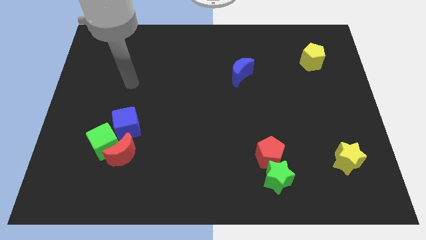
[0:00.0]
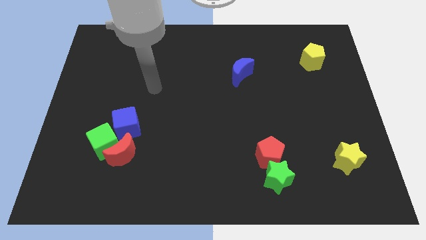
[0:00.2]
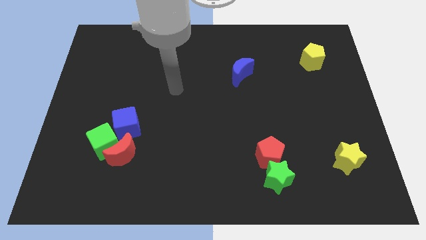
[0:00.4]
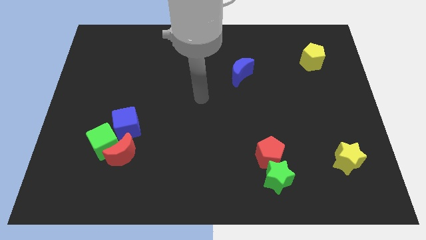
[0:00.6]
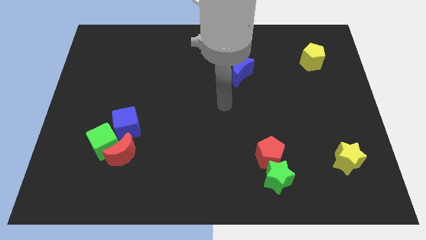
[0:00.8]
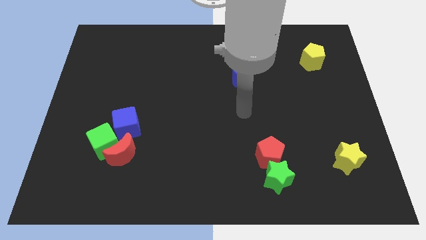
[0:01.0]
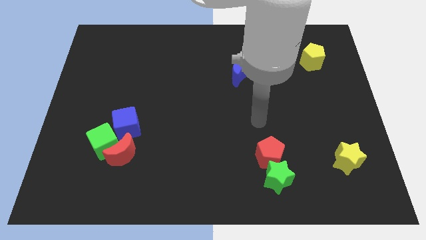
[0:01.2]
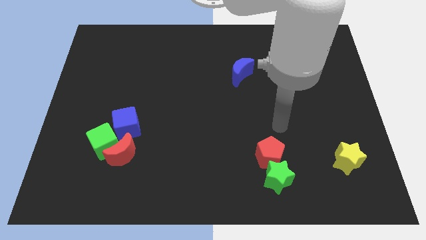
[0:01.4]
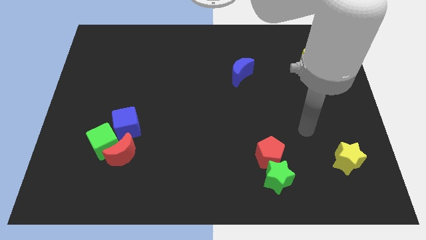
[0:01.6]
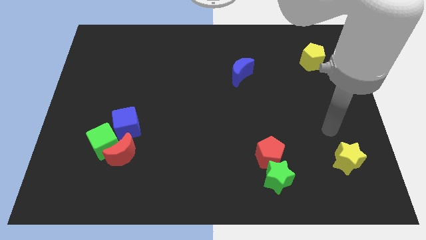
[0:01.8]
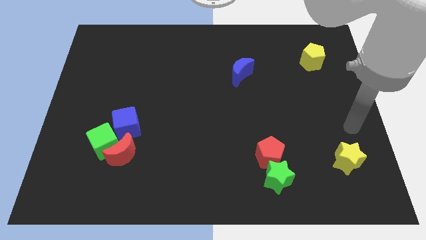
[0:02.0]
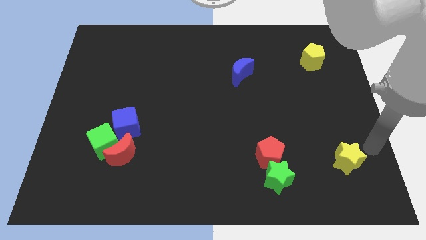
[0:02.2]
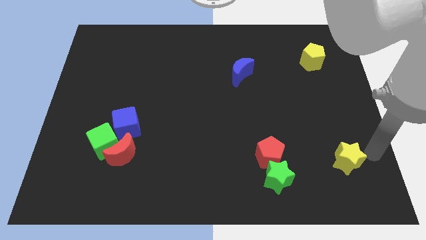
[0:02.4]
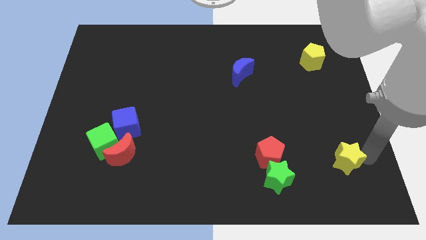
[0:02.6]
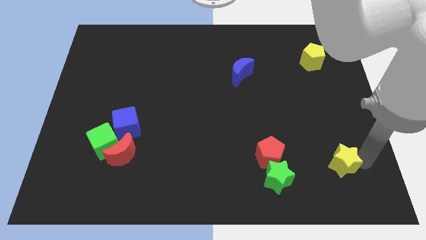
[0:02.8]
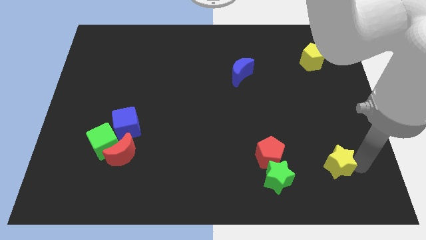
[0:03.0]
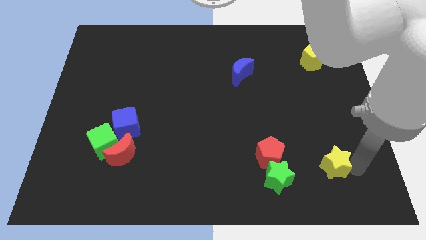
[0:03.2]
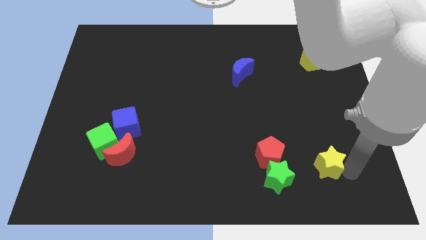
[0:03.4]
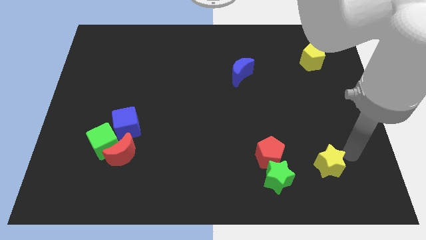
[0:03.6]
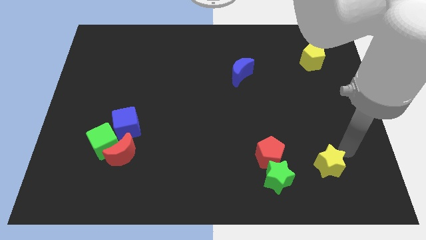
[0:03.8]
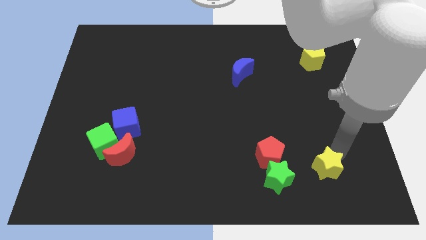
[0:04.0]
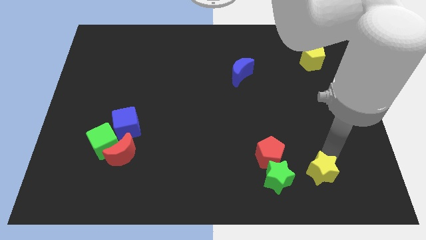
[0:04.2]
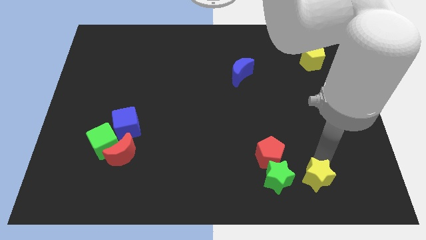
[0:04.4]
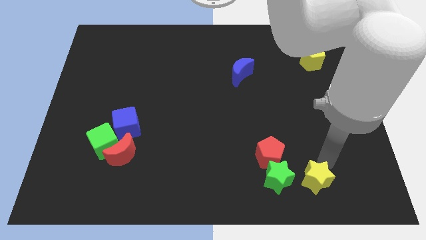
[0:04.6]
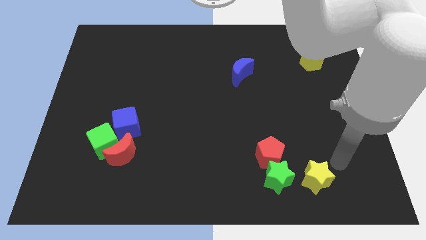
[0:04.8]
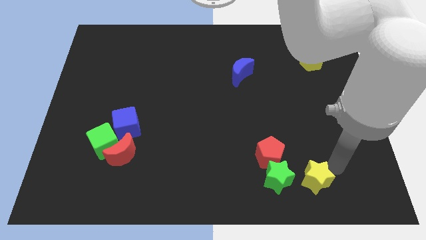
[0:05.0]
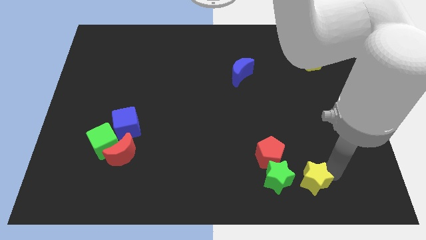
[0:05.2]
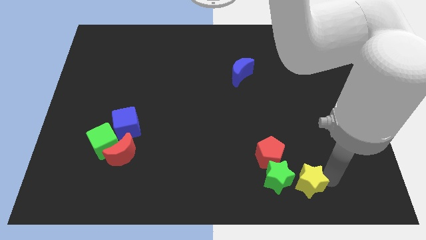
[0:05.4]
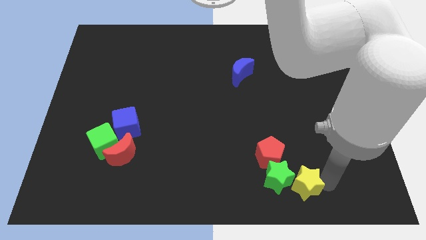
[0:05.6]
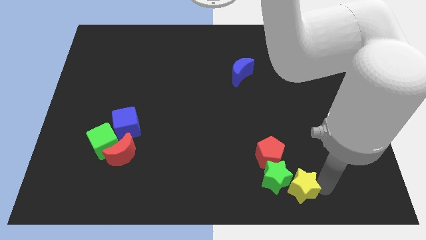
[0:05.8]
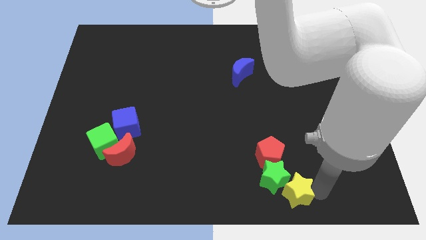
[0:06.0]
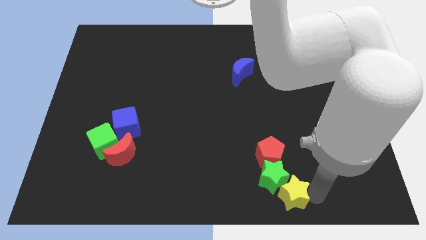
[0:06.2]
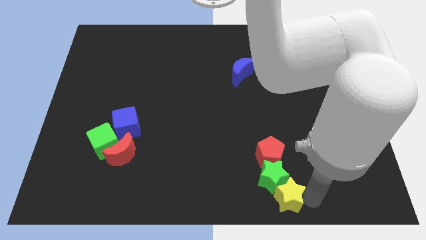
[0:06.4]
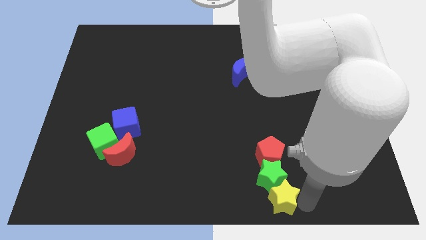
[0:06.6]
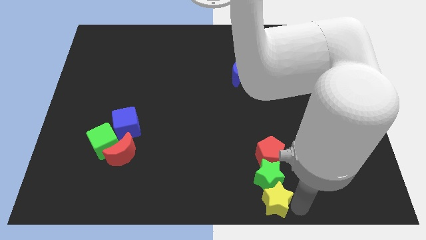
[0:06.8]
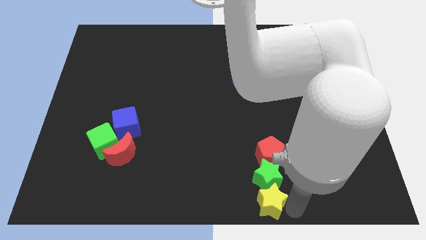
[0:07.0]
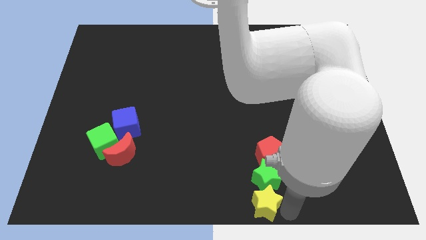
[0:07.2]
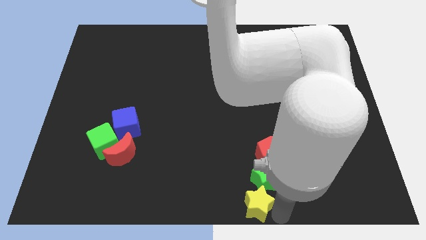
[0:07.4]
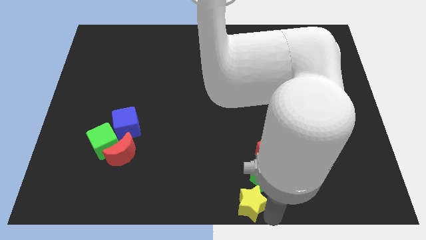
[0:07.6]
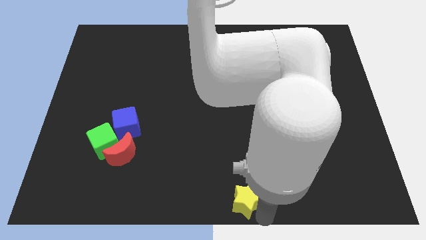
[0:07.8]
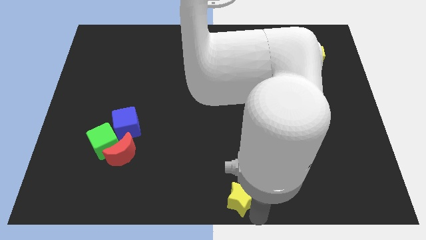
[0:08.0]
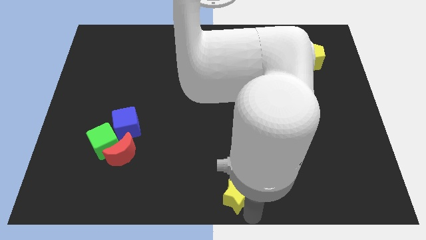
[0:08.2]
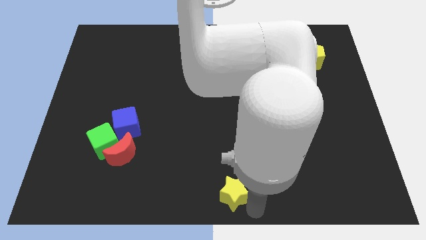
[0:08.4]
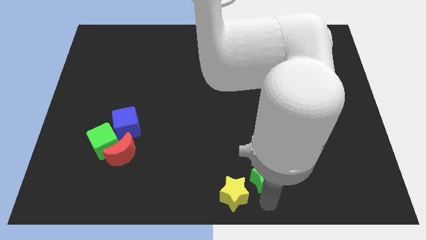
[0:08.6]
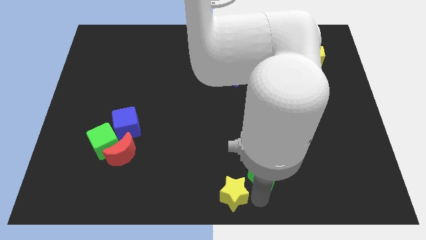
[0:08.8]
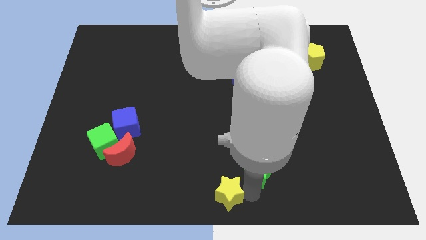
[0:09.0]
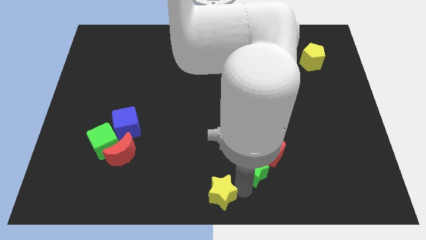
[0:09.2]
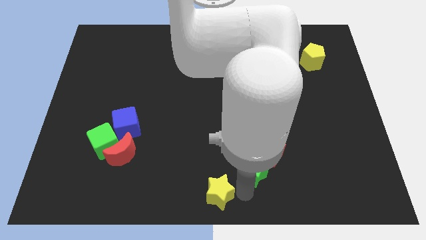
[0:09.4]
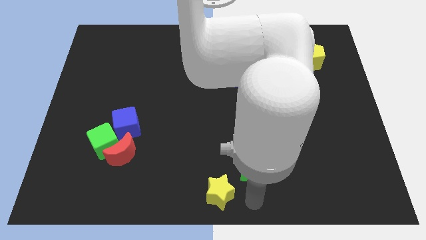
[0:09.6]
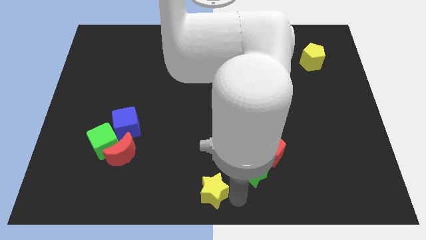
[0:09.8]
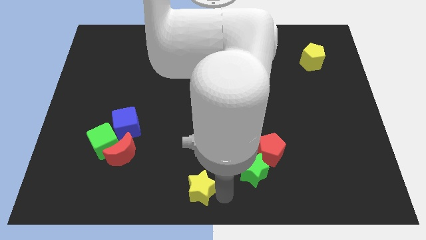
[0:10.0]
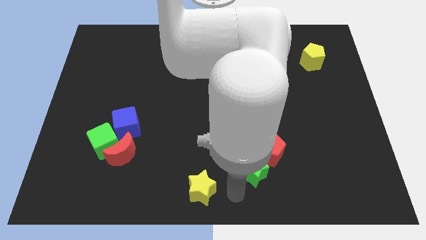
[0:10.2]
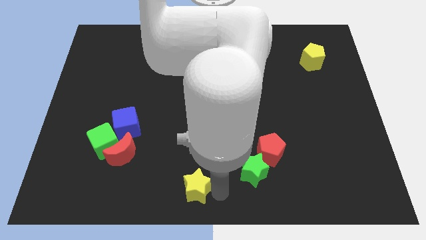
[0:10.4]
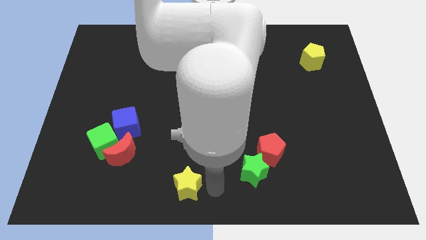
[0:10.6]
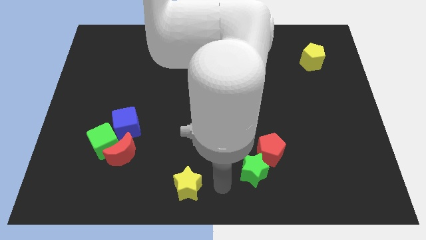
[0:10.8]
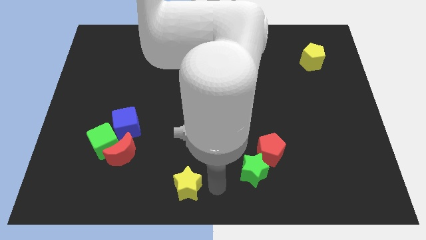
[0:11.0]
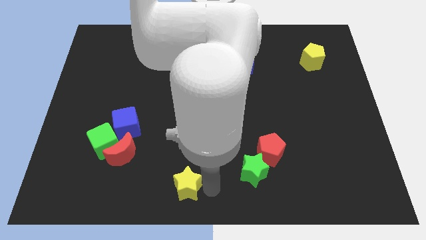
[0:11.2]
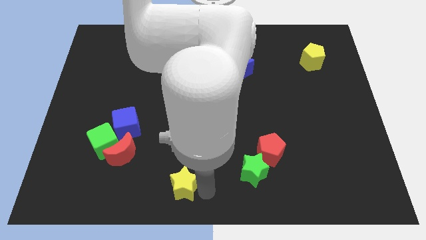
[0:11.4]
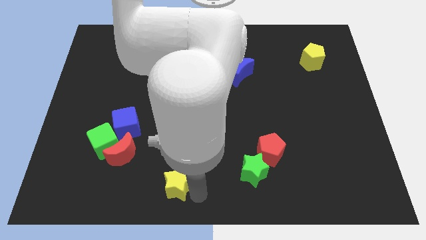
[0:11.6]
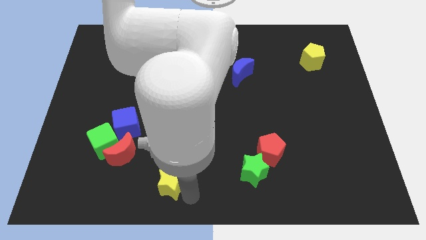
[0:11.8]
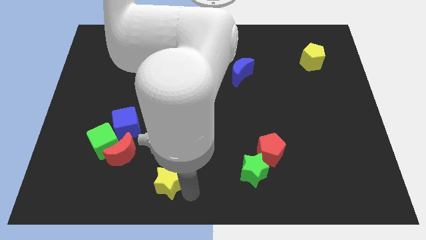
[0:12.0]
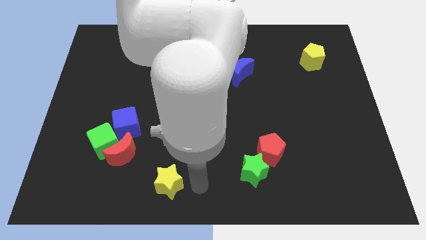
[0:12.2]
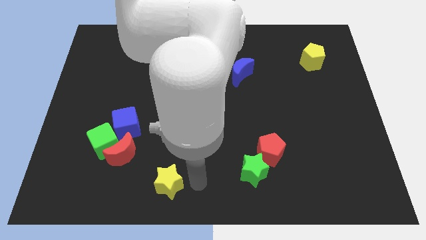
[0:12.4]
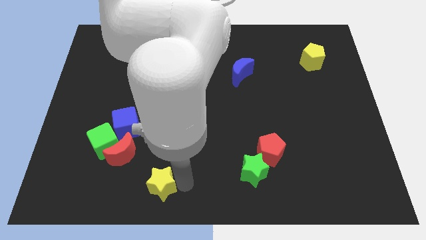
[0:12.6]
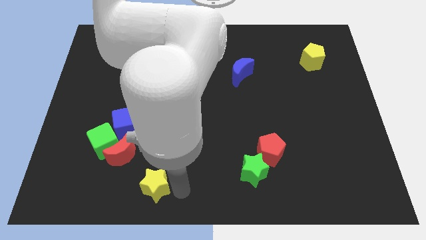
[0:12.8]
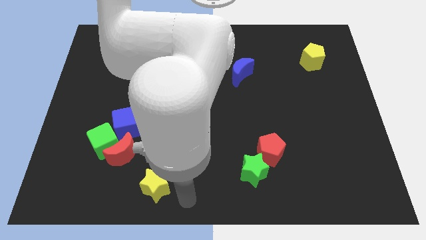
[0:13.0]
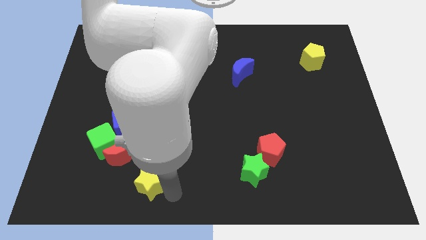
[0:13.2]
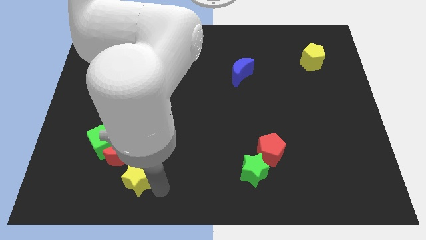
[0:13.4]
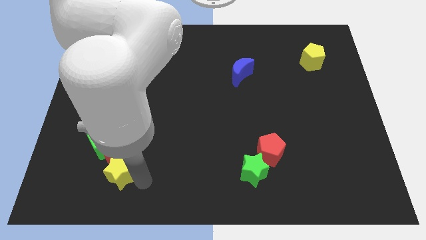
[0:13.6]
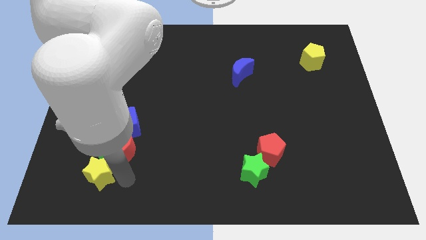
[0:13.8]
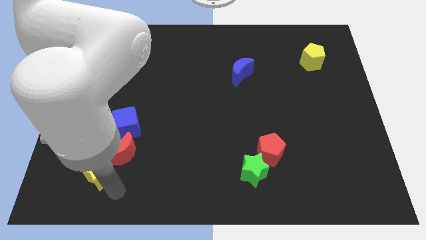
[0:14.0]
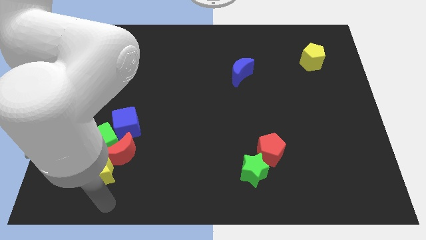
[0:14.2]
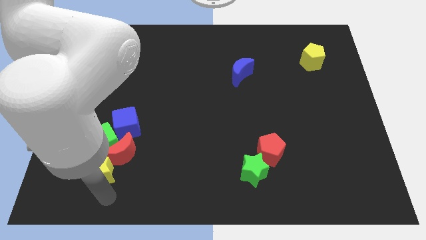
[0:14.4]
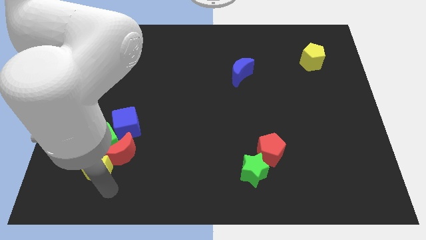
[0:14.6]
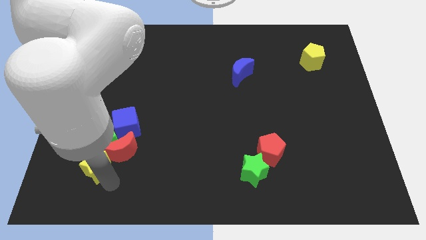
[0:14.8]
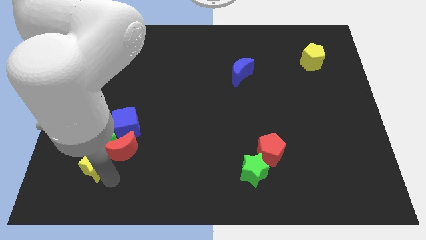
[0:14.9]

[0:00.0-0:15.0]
put the yellow star to the bottom left side of the blue cube
